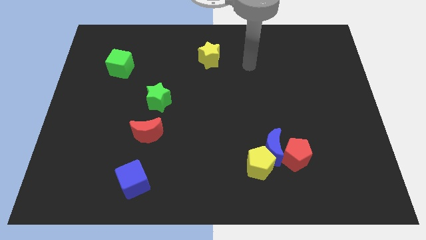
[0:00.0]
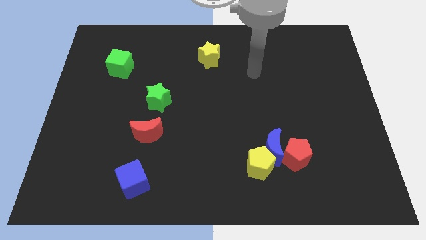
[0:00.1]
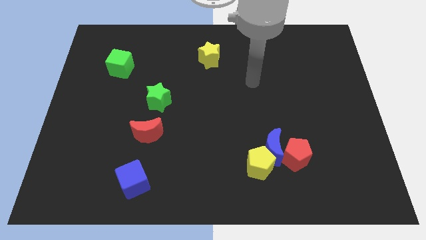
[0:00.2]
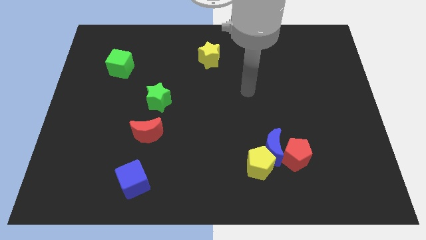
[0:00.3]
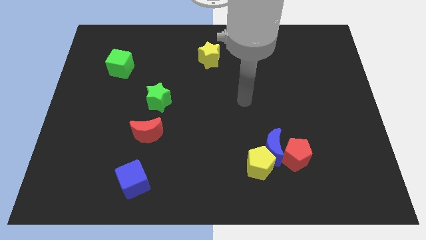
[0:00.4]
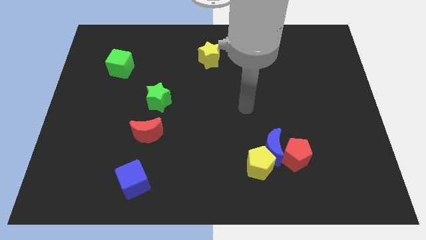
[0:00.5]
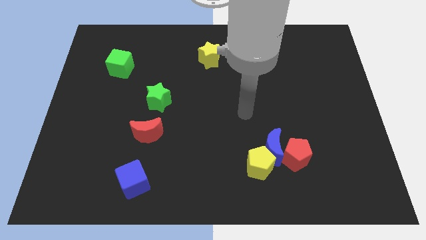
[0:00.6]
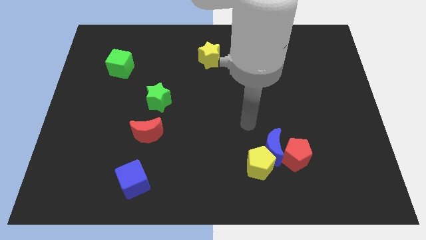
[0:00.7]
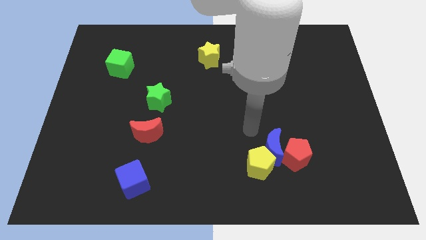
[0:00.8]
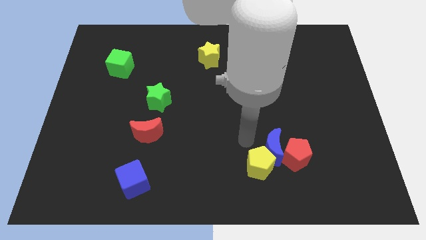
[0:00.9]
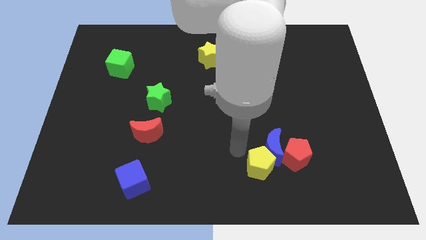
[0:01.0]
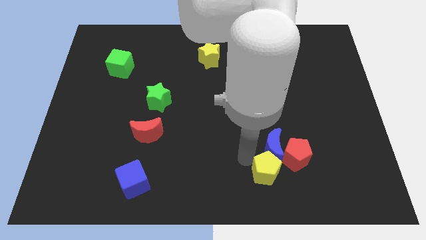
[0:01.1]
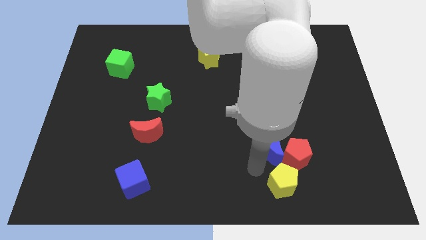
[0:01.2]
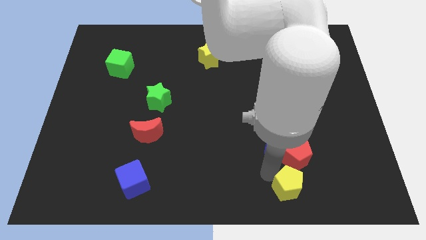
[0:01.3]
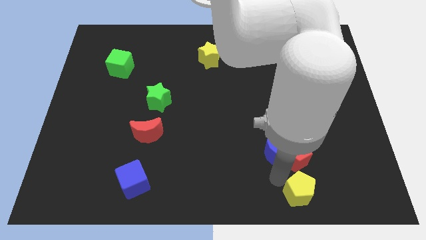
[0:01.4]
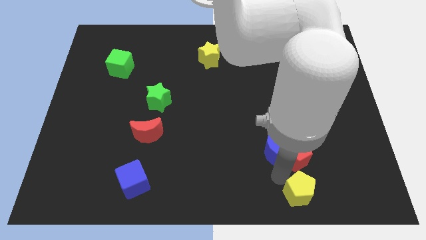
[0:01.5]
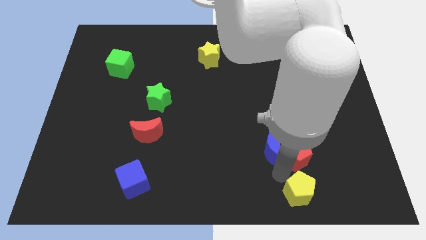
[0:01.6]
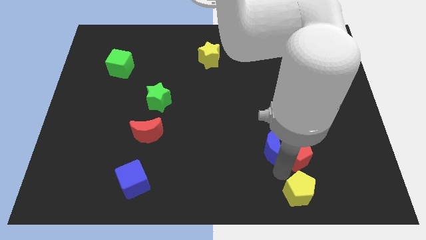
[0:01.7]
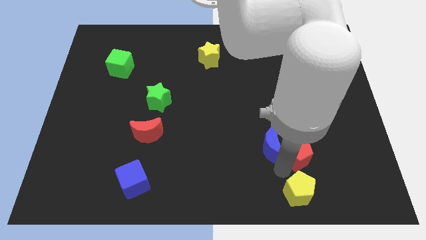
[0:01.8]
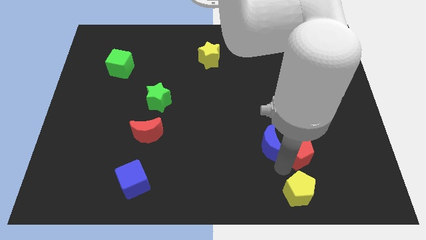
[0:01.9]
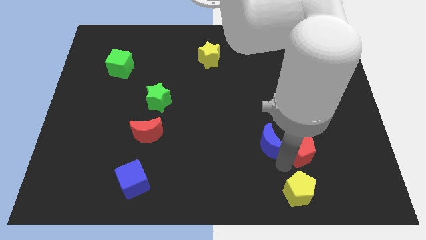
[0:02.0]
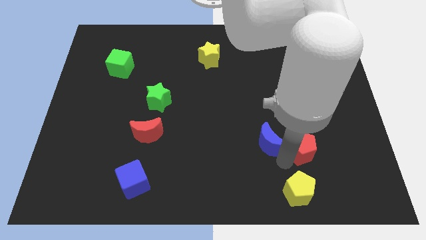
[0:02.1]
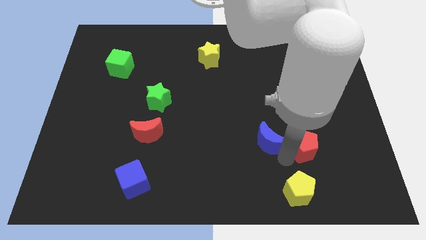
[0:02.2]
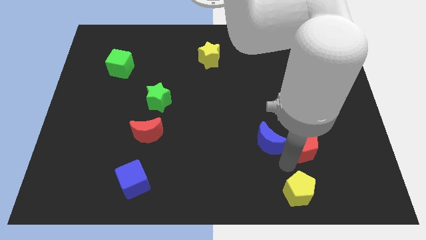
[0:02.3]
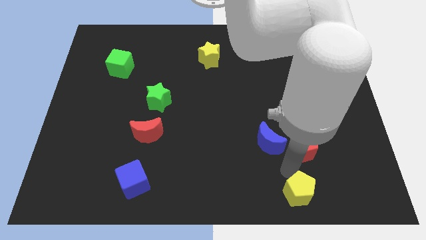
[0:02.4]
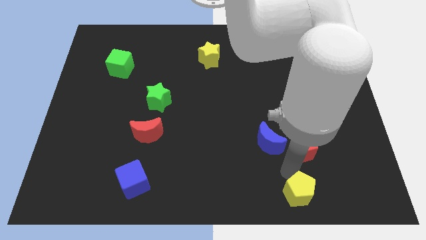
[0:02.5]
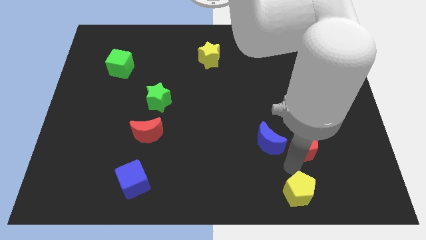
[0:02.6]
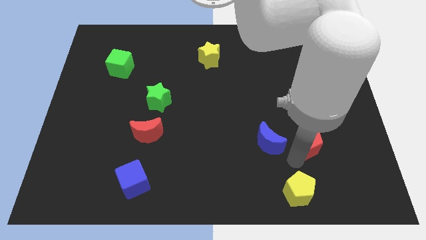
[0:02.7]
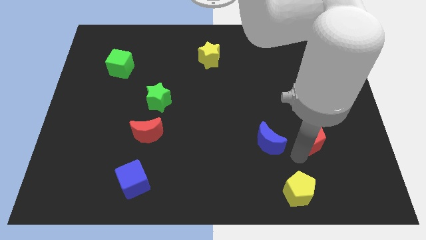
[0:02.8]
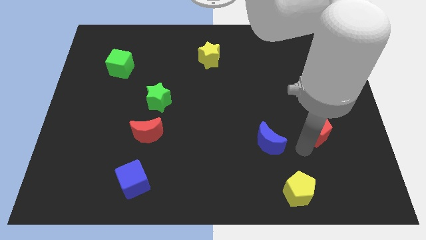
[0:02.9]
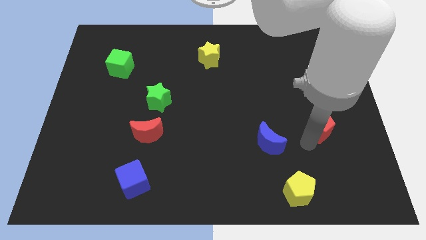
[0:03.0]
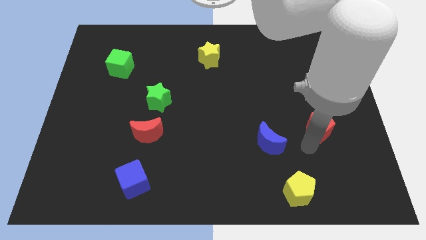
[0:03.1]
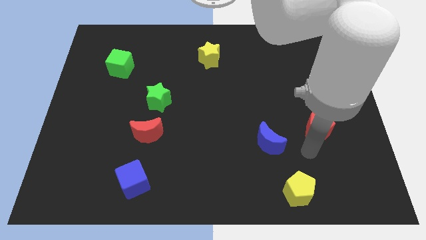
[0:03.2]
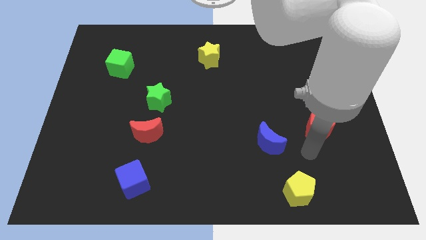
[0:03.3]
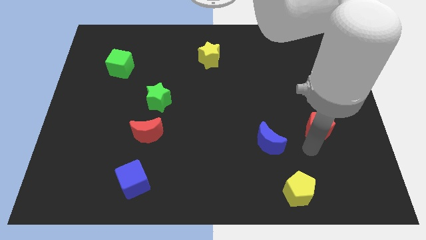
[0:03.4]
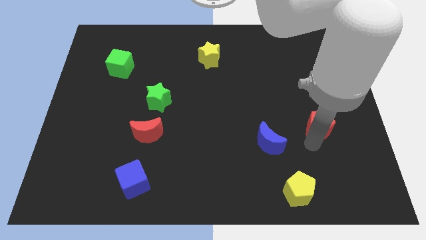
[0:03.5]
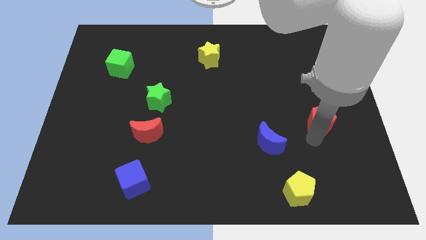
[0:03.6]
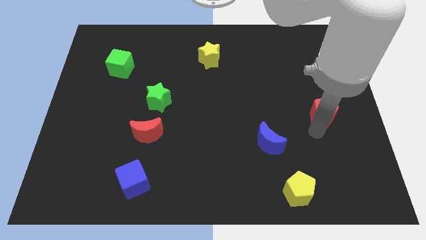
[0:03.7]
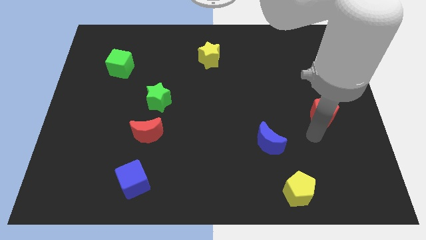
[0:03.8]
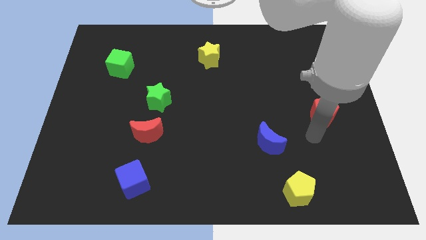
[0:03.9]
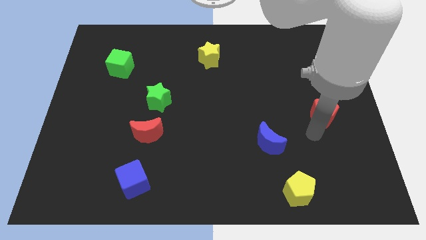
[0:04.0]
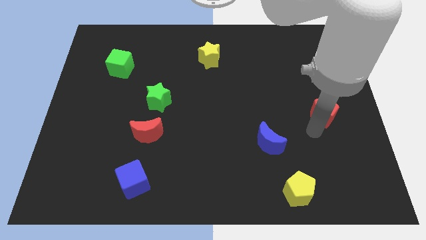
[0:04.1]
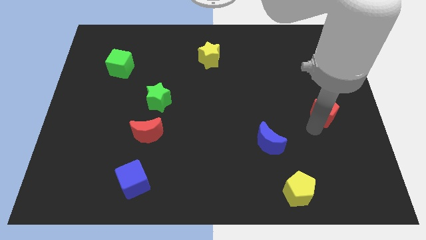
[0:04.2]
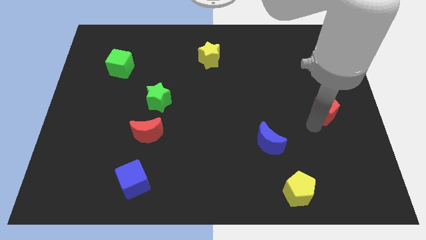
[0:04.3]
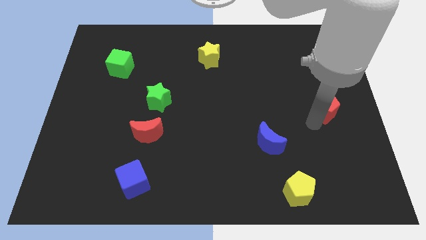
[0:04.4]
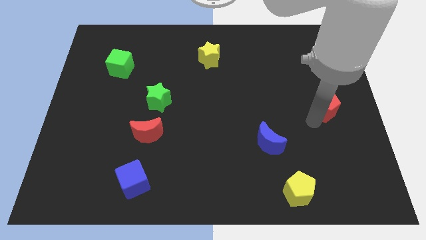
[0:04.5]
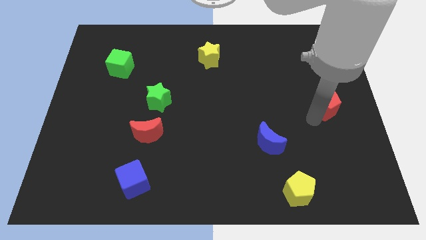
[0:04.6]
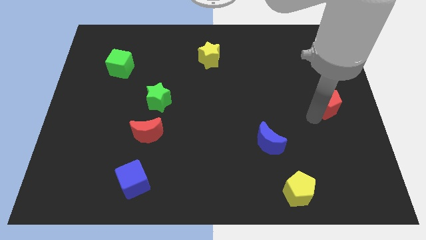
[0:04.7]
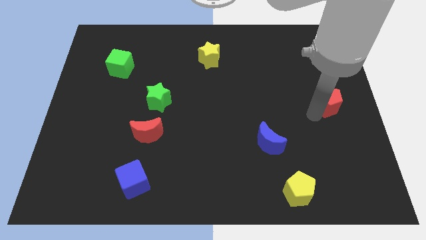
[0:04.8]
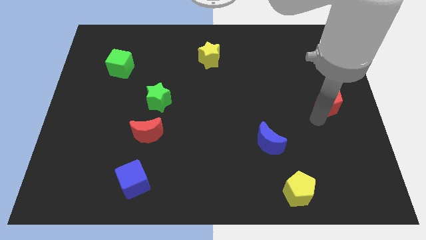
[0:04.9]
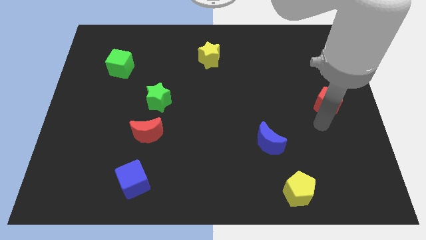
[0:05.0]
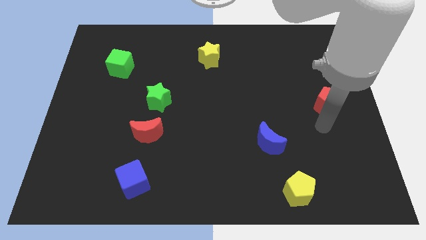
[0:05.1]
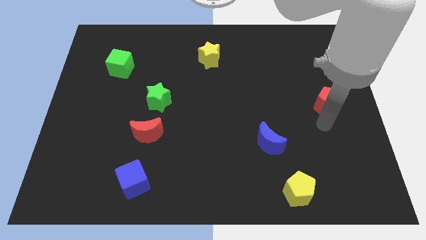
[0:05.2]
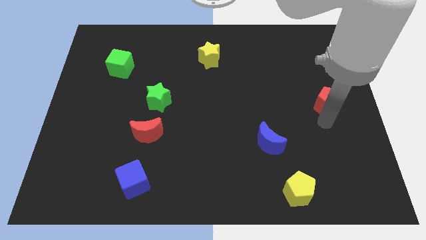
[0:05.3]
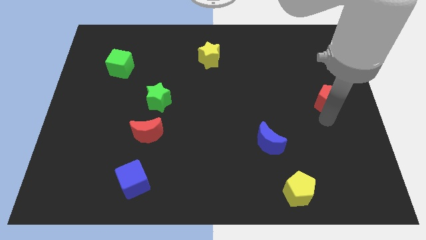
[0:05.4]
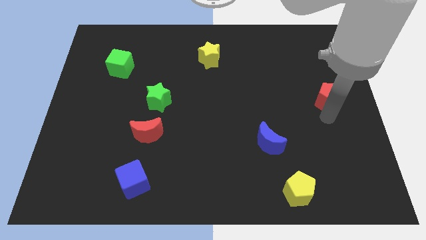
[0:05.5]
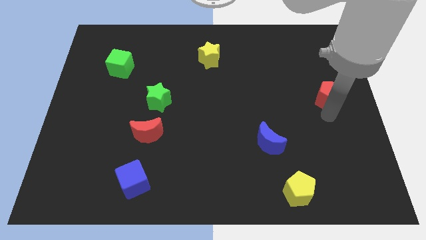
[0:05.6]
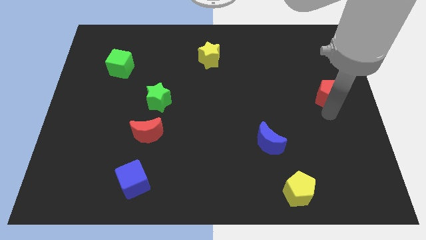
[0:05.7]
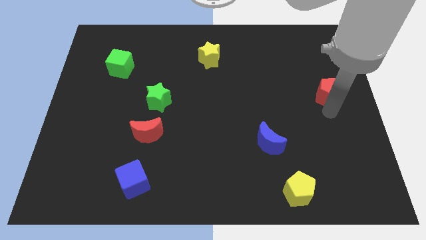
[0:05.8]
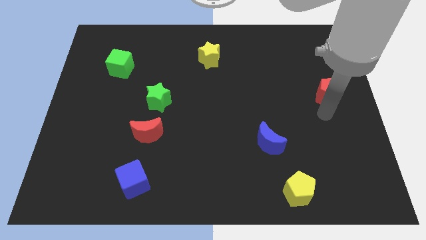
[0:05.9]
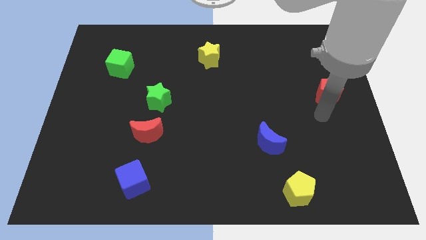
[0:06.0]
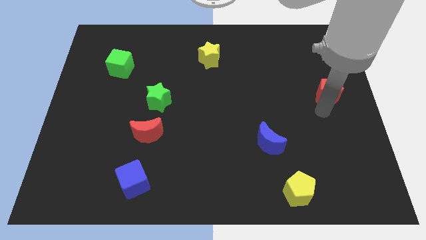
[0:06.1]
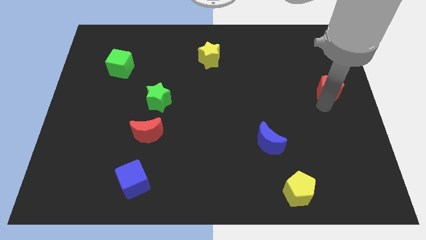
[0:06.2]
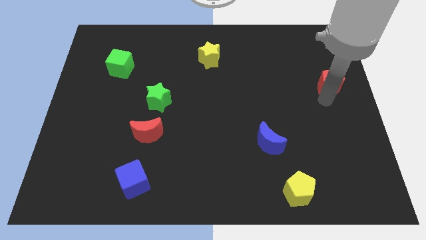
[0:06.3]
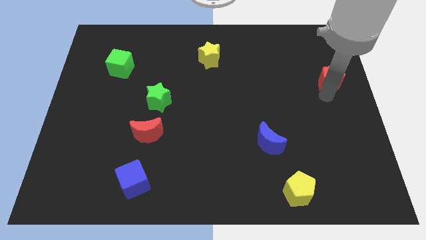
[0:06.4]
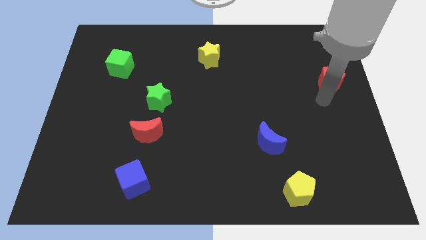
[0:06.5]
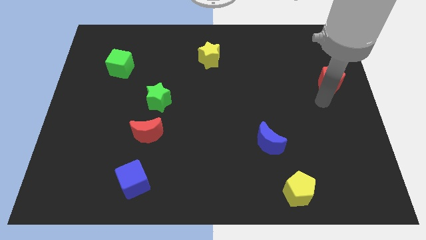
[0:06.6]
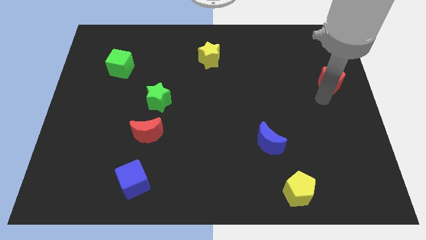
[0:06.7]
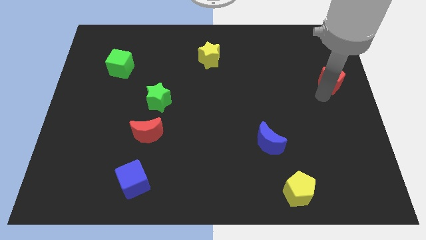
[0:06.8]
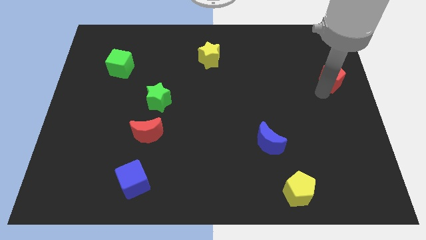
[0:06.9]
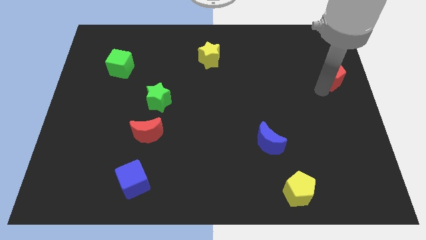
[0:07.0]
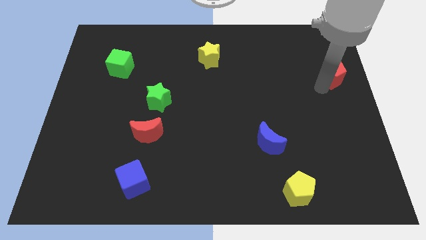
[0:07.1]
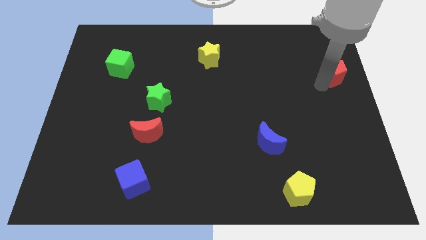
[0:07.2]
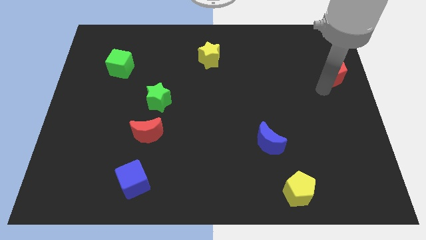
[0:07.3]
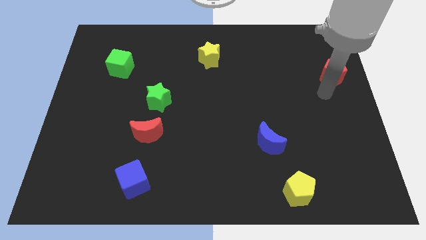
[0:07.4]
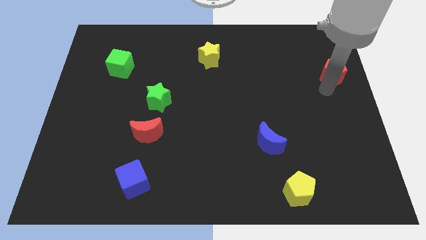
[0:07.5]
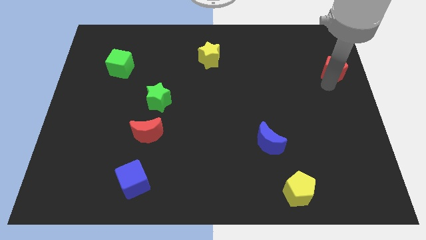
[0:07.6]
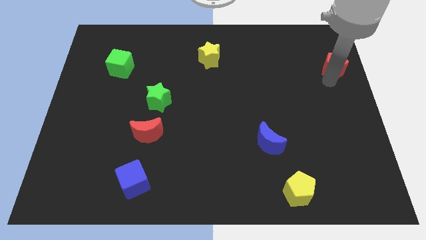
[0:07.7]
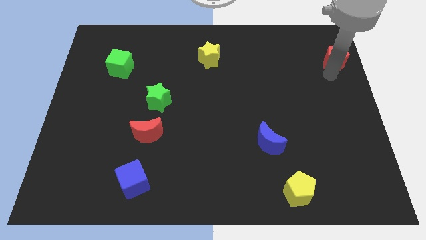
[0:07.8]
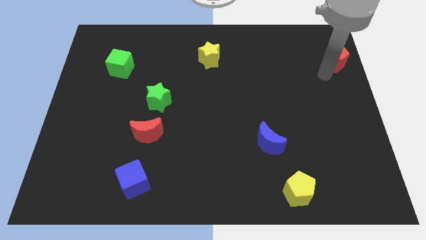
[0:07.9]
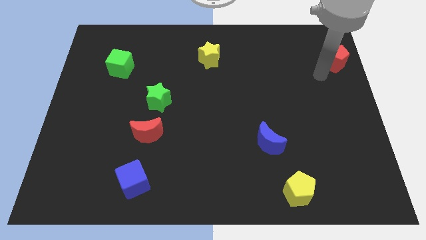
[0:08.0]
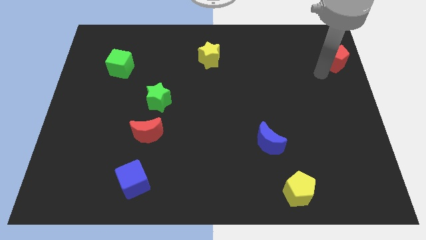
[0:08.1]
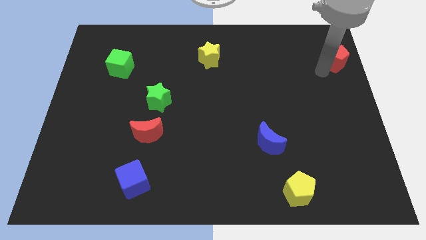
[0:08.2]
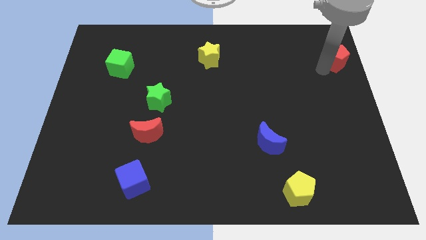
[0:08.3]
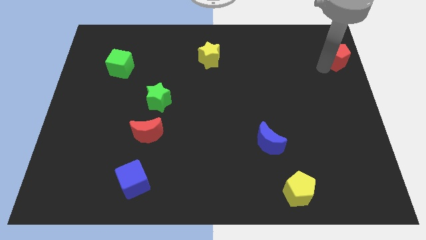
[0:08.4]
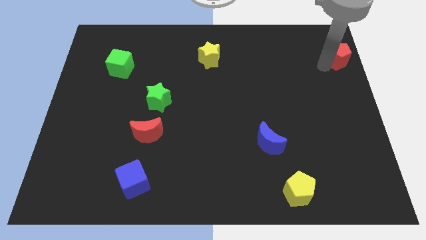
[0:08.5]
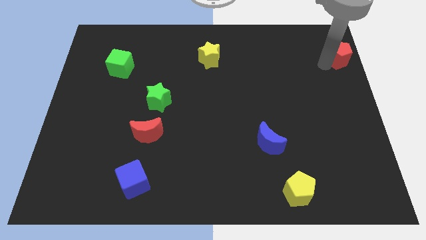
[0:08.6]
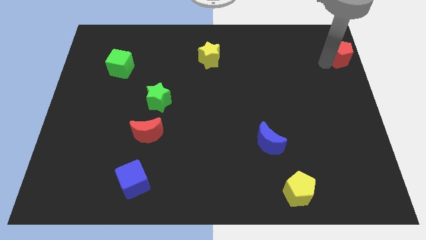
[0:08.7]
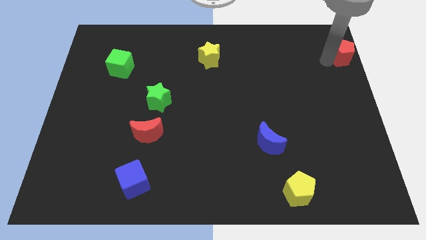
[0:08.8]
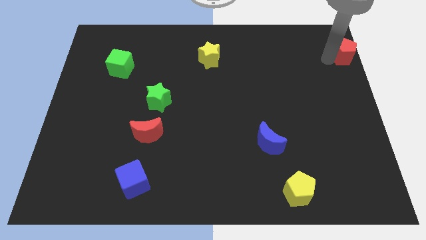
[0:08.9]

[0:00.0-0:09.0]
push the red pentagon to the upper right corner
